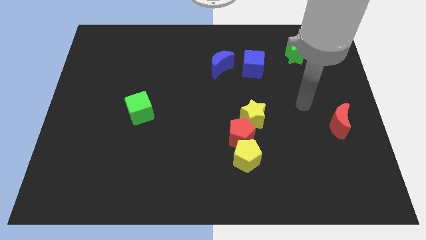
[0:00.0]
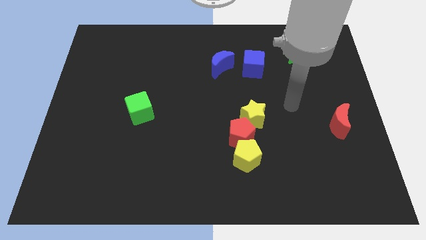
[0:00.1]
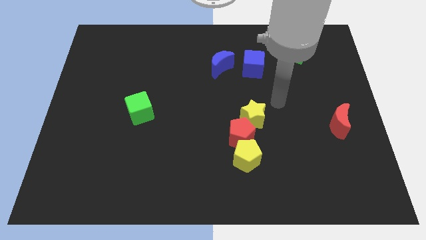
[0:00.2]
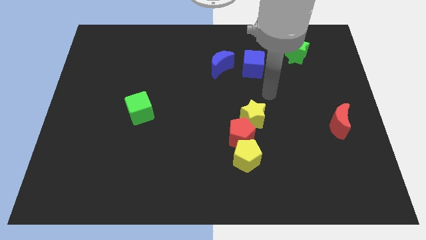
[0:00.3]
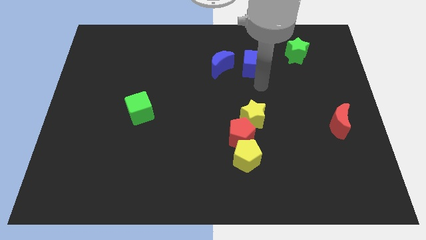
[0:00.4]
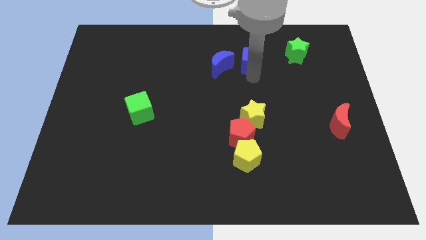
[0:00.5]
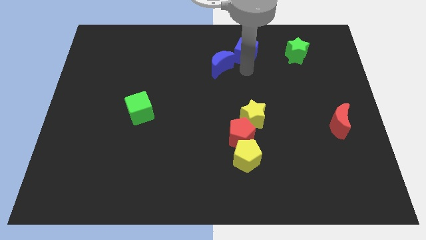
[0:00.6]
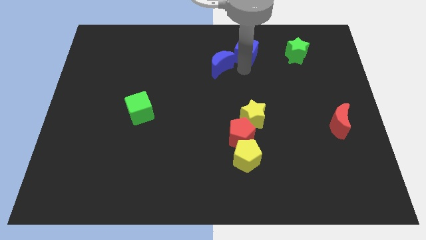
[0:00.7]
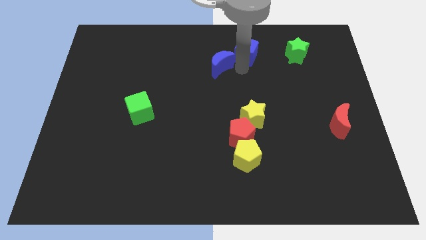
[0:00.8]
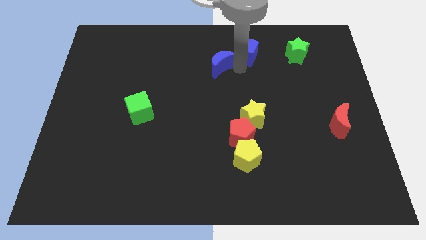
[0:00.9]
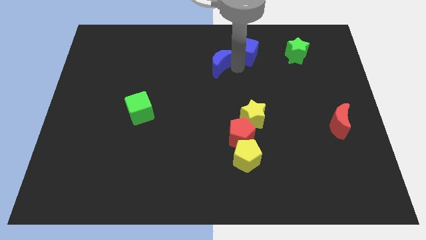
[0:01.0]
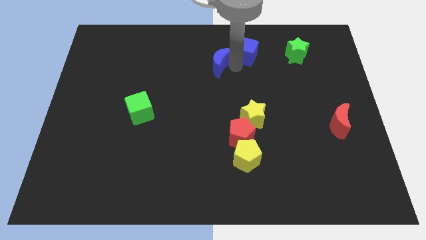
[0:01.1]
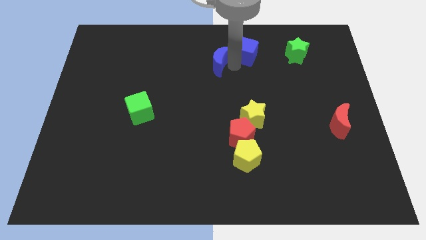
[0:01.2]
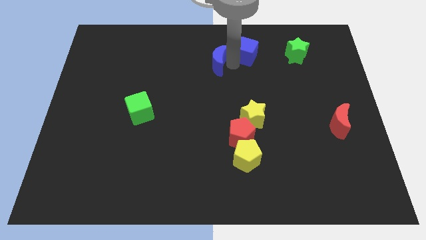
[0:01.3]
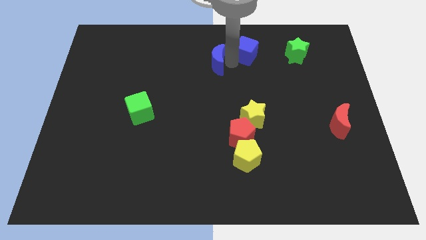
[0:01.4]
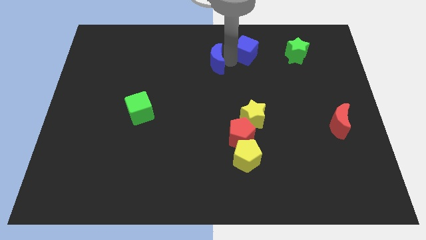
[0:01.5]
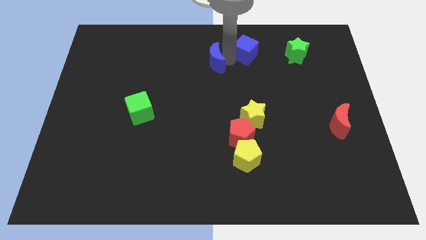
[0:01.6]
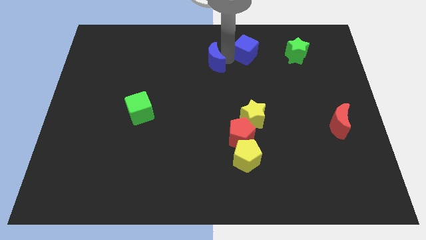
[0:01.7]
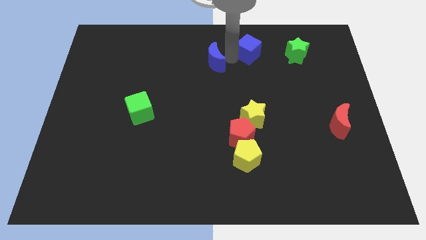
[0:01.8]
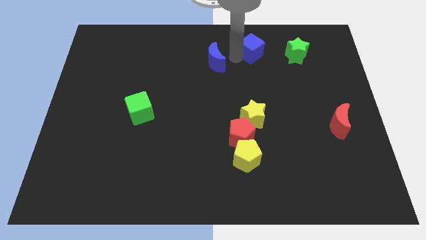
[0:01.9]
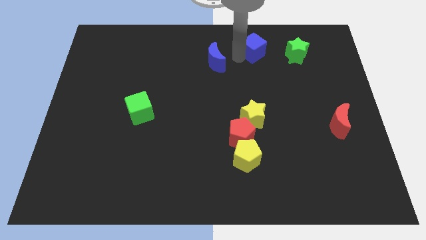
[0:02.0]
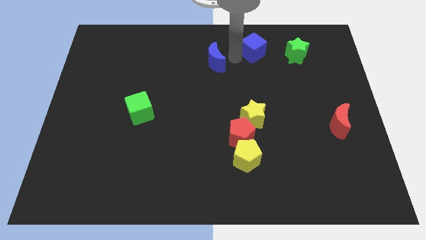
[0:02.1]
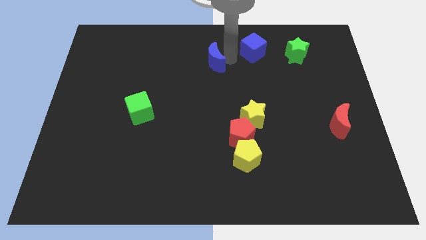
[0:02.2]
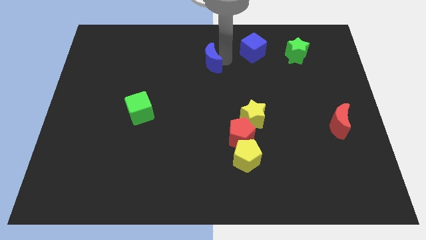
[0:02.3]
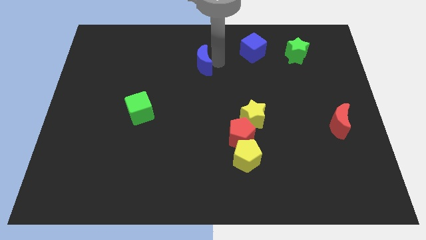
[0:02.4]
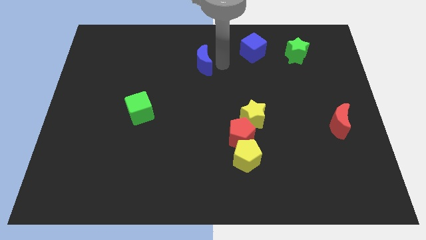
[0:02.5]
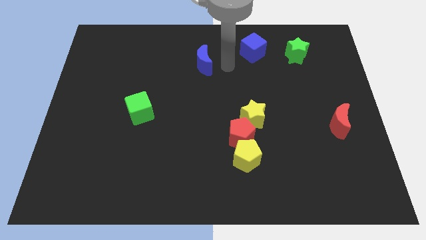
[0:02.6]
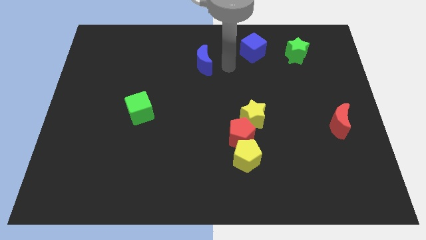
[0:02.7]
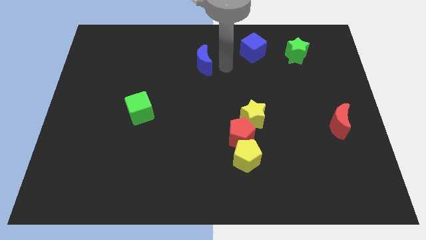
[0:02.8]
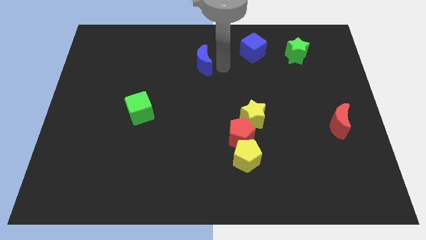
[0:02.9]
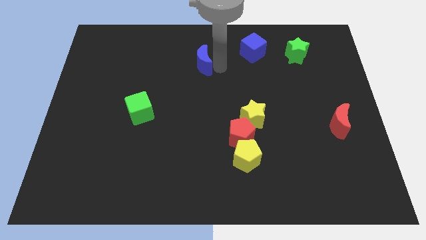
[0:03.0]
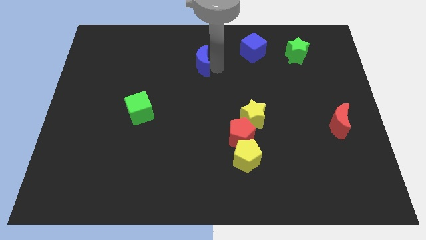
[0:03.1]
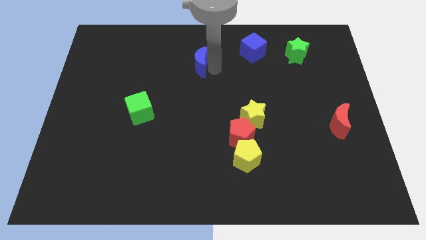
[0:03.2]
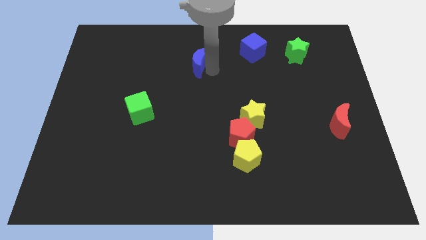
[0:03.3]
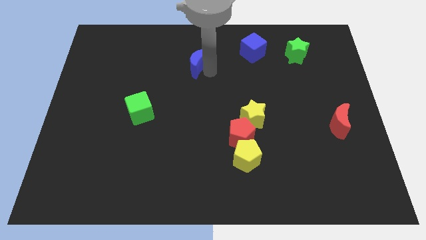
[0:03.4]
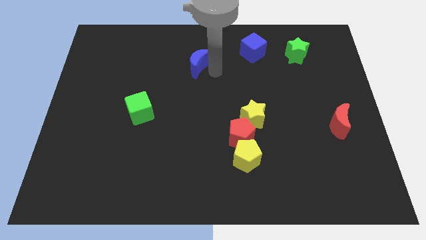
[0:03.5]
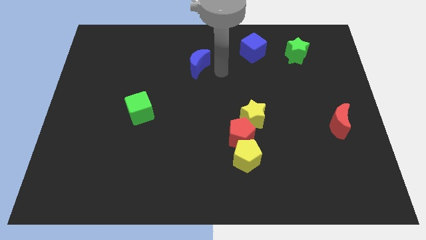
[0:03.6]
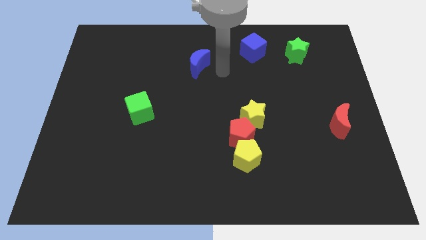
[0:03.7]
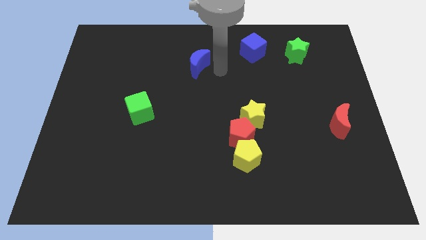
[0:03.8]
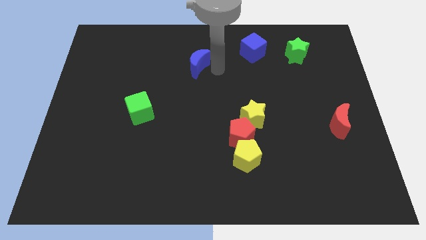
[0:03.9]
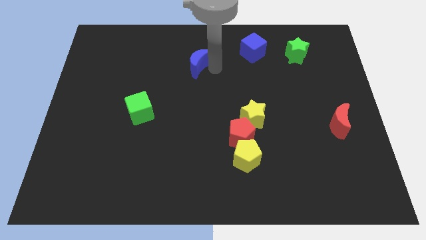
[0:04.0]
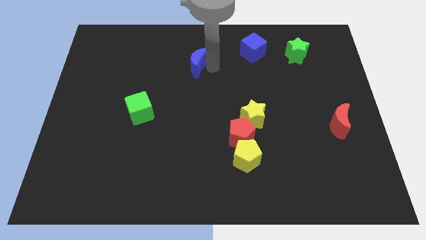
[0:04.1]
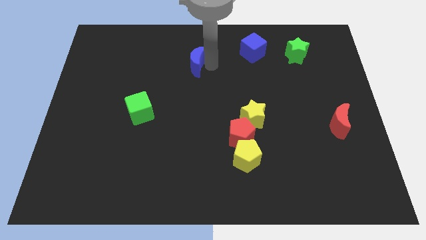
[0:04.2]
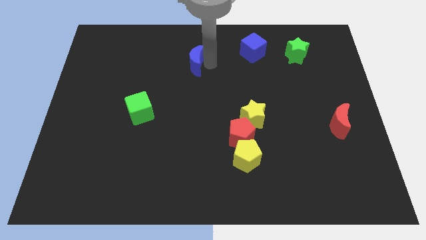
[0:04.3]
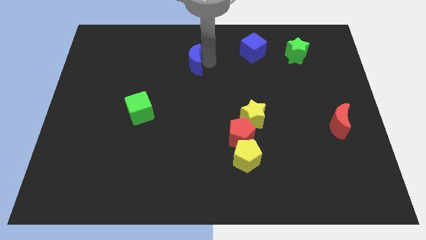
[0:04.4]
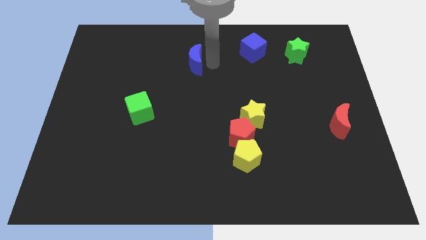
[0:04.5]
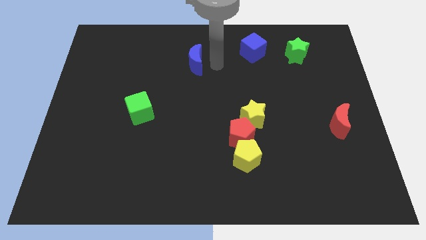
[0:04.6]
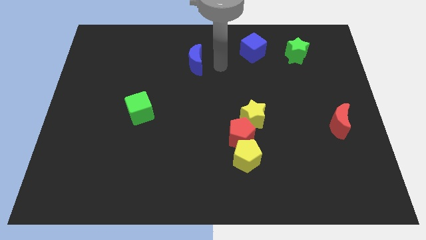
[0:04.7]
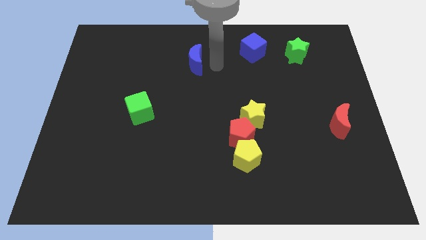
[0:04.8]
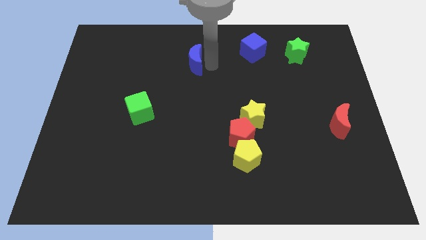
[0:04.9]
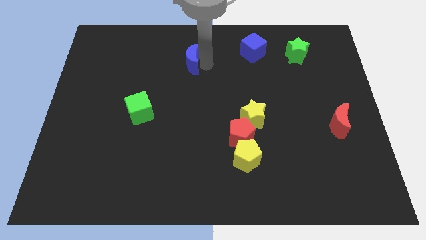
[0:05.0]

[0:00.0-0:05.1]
push the blue moon to the left somewhat

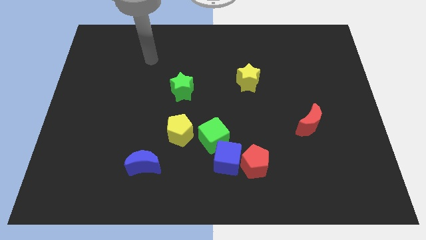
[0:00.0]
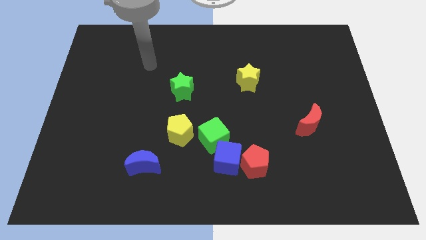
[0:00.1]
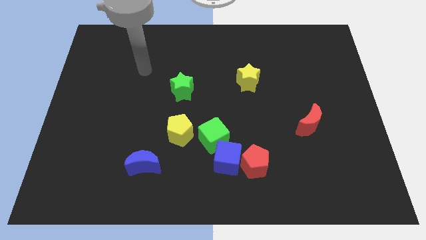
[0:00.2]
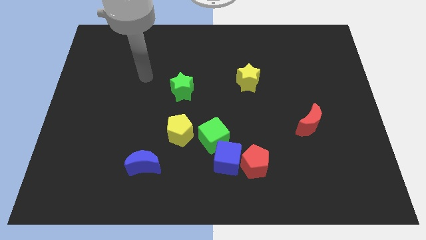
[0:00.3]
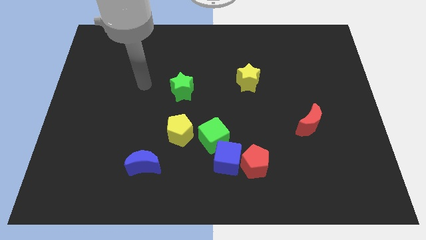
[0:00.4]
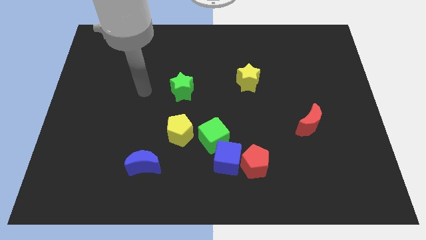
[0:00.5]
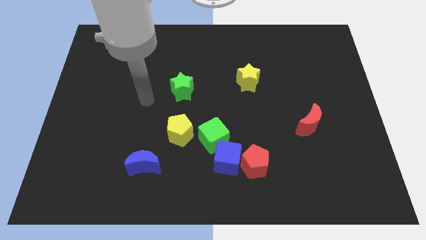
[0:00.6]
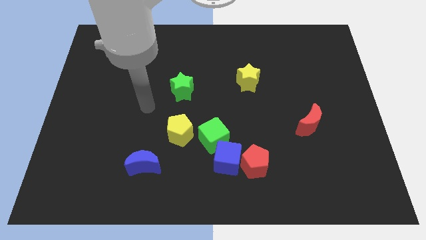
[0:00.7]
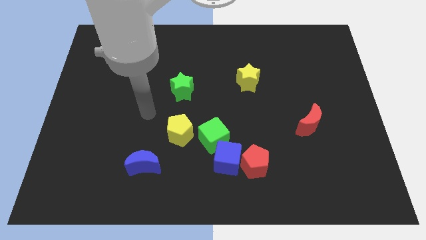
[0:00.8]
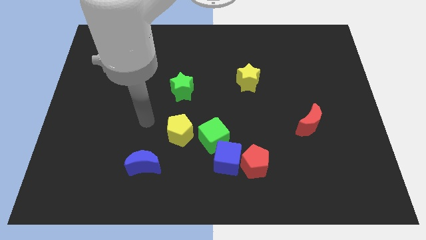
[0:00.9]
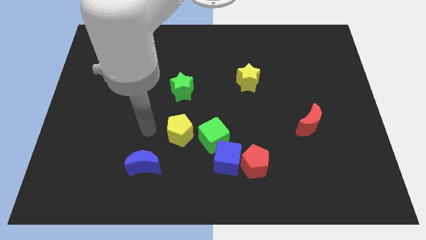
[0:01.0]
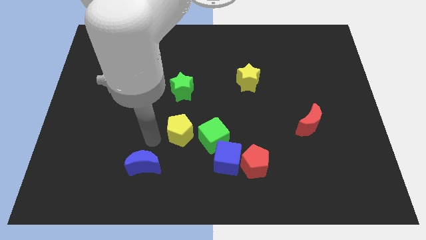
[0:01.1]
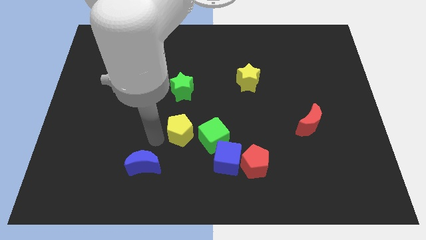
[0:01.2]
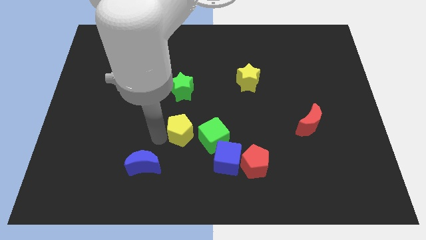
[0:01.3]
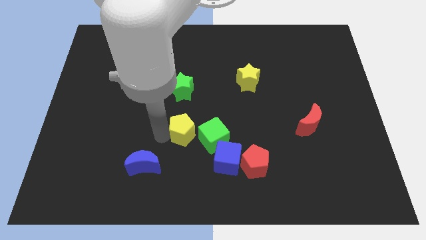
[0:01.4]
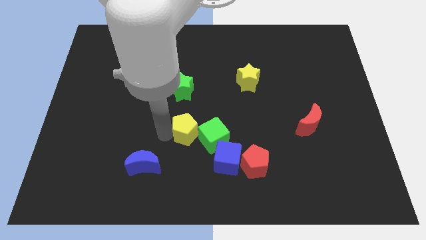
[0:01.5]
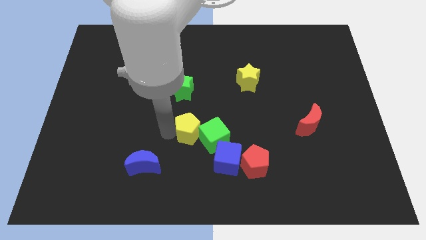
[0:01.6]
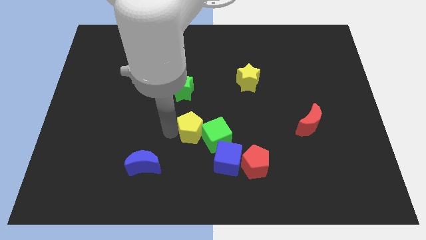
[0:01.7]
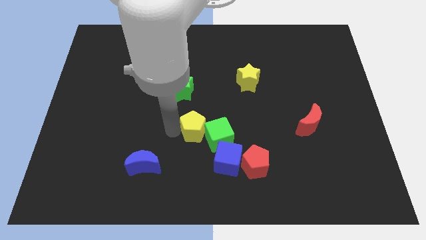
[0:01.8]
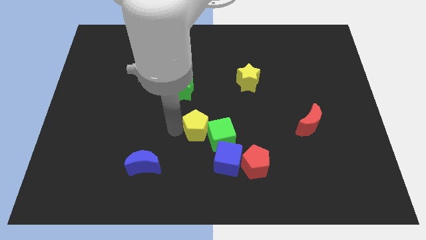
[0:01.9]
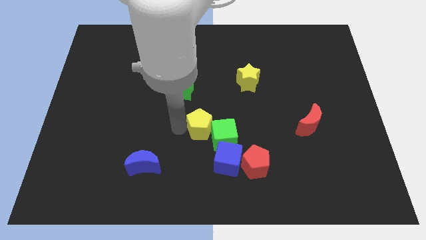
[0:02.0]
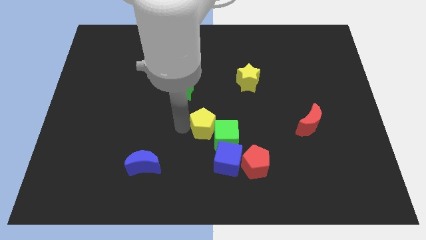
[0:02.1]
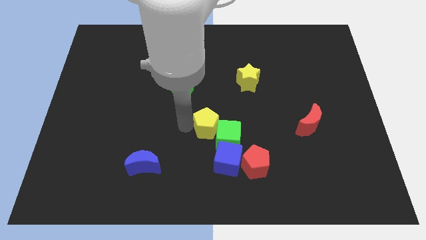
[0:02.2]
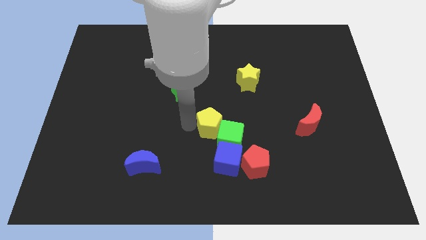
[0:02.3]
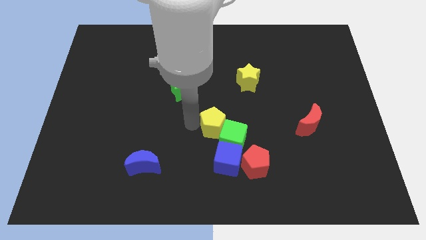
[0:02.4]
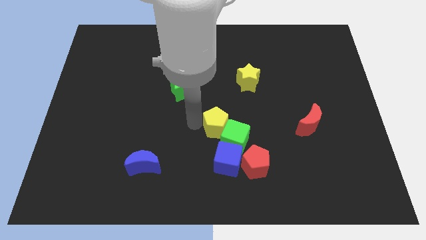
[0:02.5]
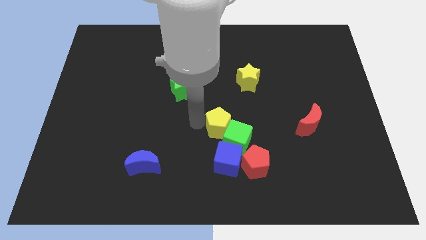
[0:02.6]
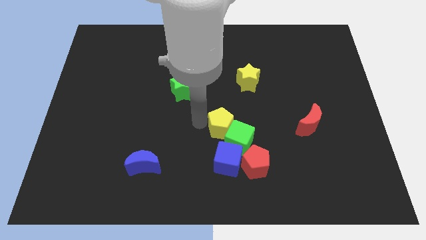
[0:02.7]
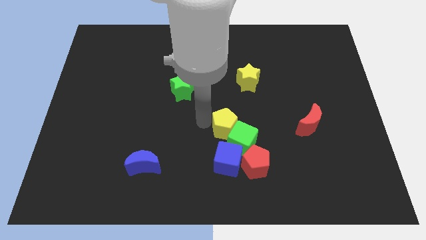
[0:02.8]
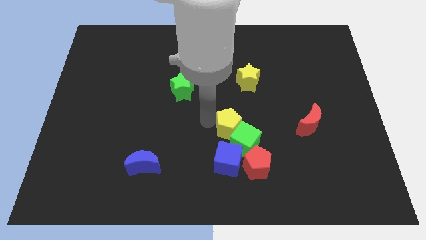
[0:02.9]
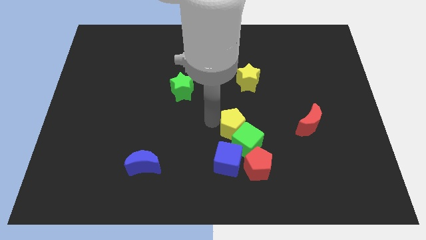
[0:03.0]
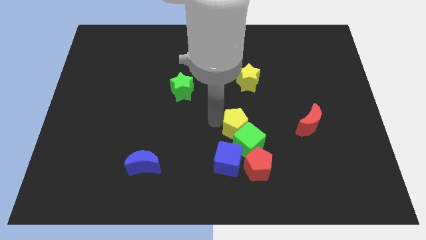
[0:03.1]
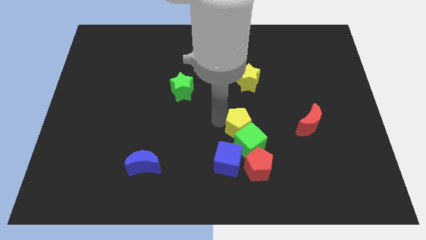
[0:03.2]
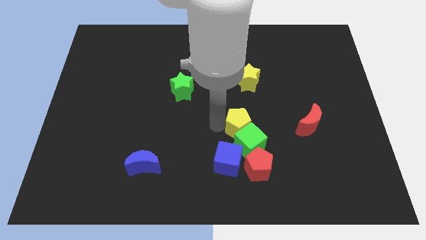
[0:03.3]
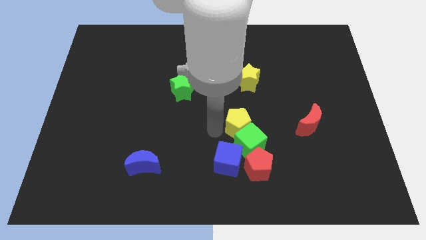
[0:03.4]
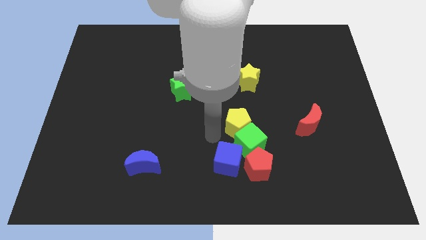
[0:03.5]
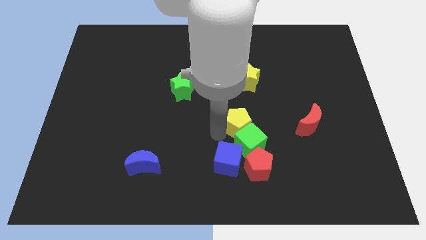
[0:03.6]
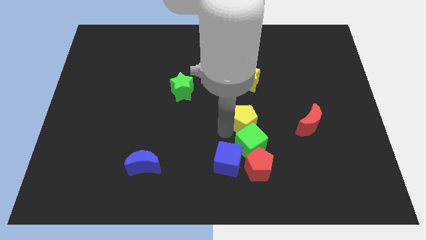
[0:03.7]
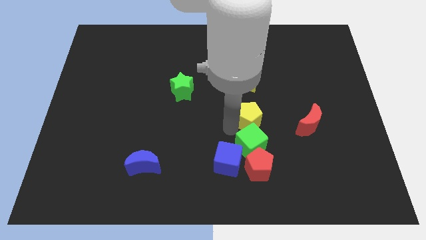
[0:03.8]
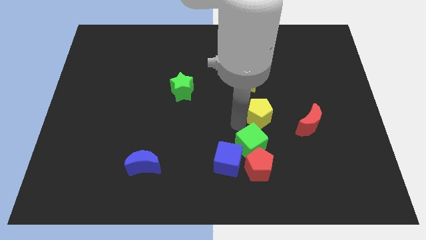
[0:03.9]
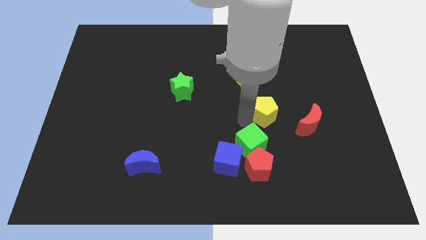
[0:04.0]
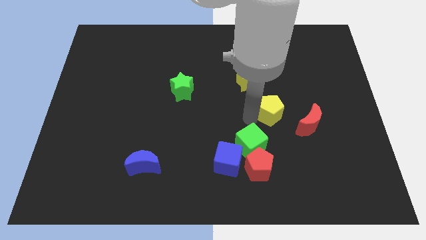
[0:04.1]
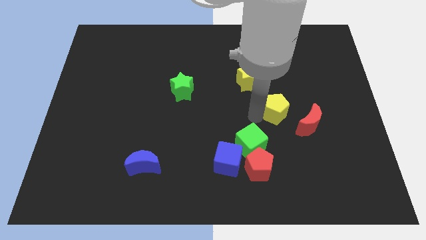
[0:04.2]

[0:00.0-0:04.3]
push the yellow pentagon right
